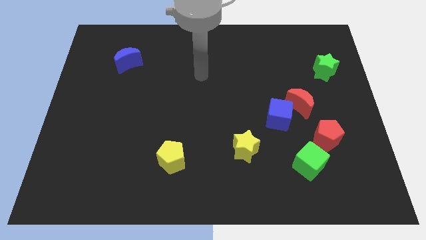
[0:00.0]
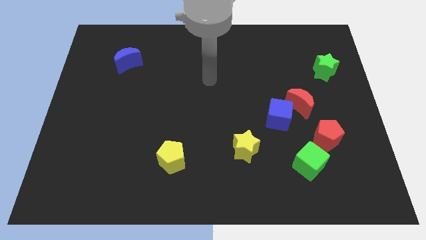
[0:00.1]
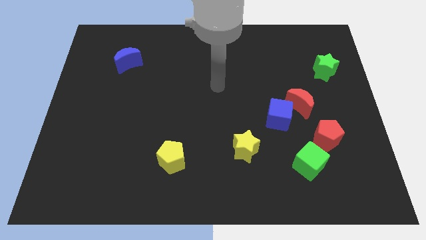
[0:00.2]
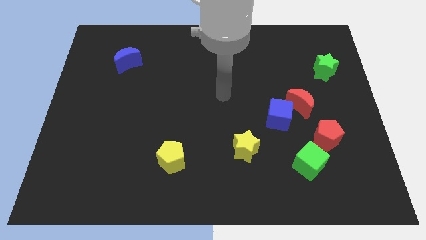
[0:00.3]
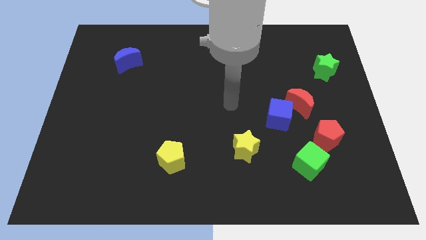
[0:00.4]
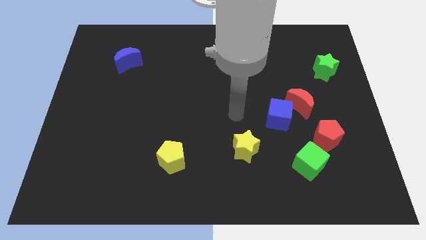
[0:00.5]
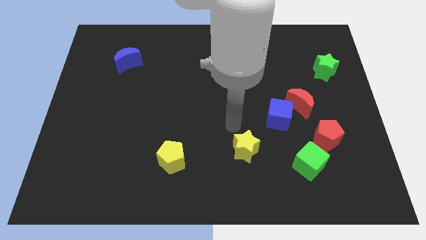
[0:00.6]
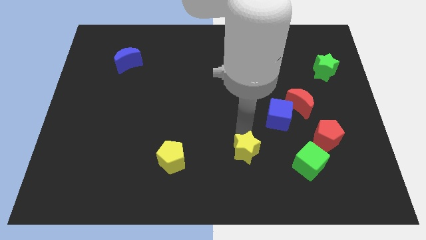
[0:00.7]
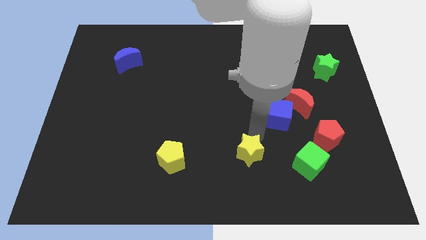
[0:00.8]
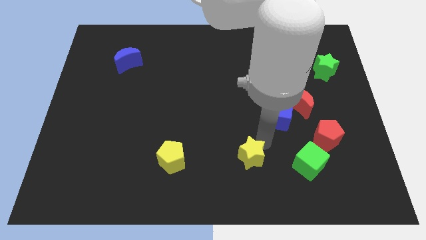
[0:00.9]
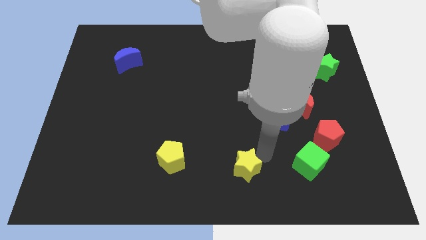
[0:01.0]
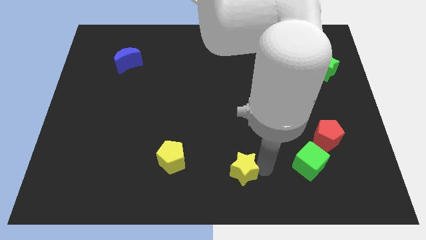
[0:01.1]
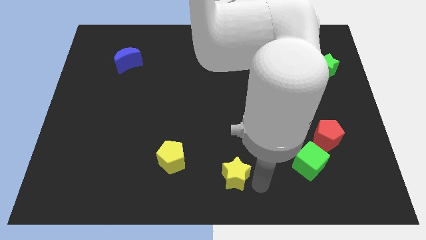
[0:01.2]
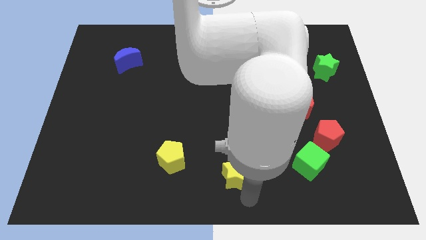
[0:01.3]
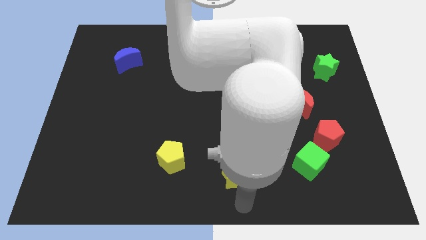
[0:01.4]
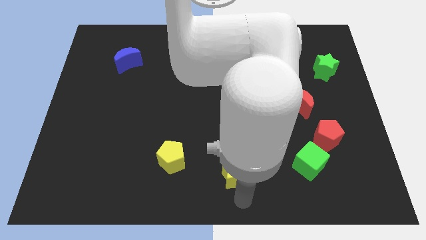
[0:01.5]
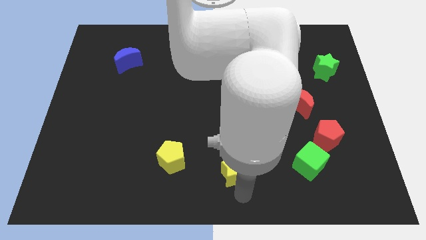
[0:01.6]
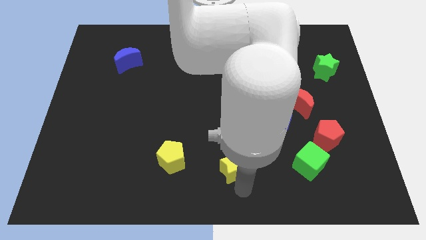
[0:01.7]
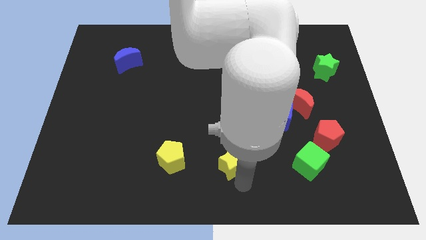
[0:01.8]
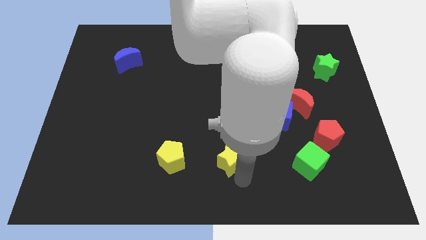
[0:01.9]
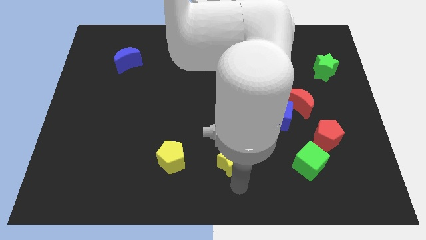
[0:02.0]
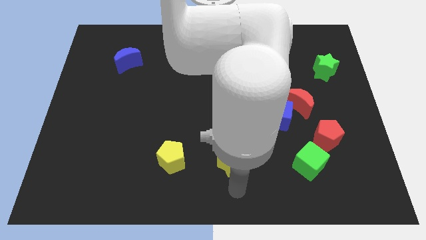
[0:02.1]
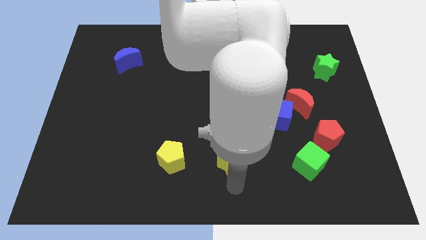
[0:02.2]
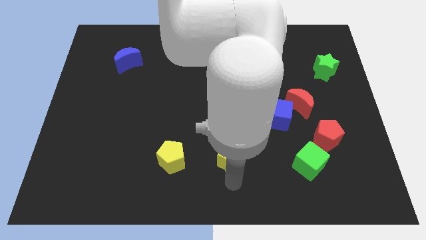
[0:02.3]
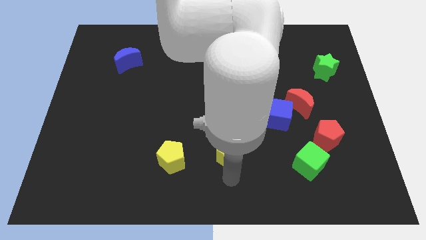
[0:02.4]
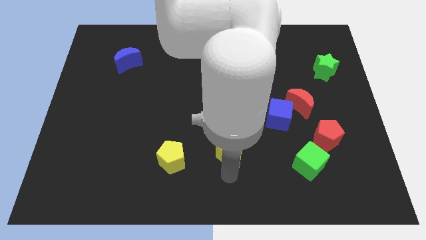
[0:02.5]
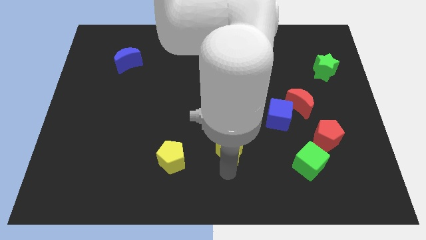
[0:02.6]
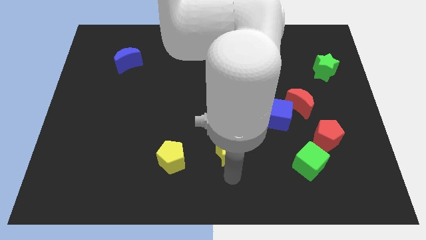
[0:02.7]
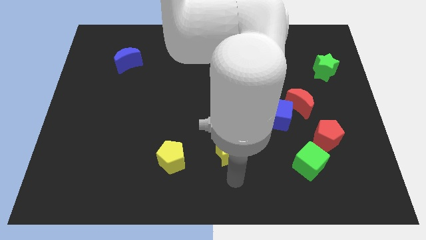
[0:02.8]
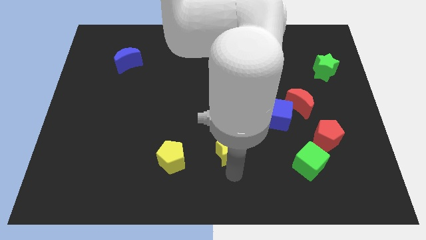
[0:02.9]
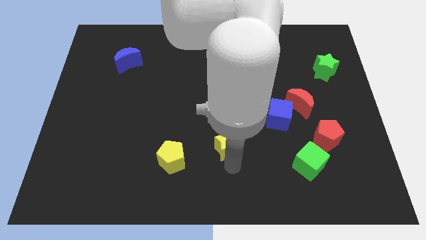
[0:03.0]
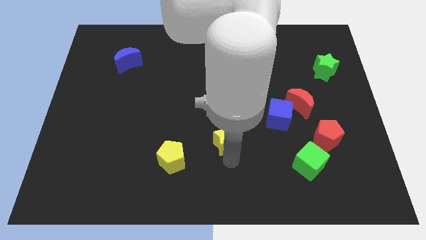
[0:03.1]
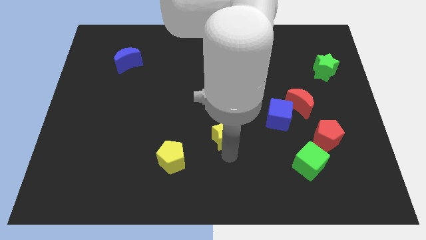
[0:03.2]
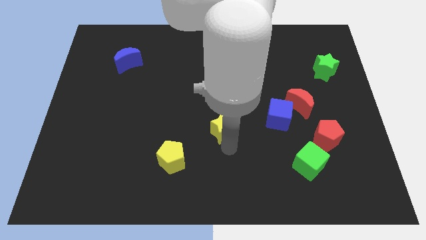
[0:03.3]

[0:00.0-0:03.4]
slightly push the yellow star up and to the left diagonally

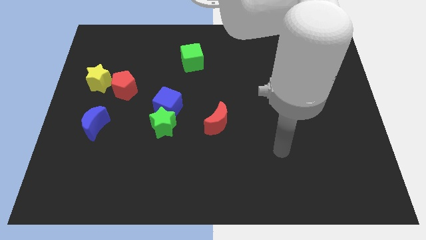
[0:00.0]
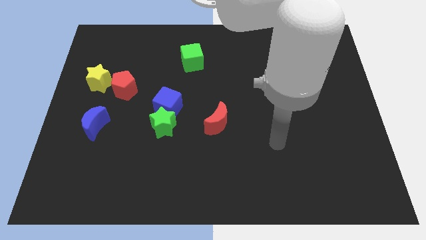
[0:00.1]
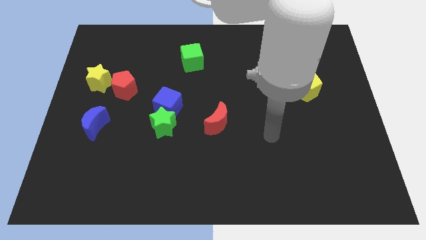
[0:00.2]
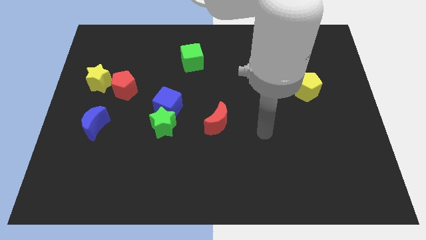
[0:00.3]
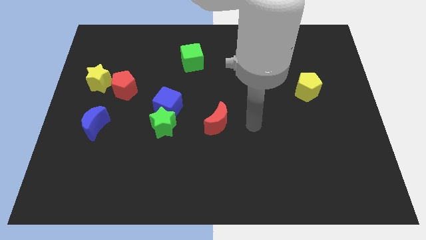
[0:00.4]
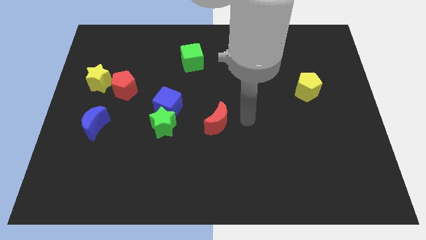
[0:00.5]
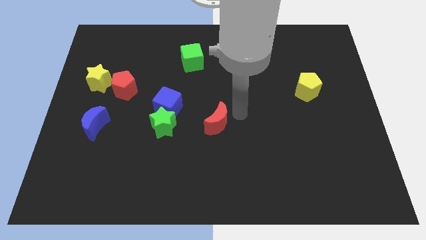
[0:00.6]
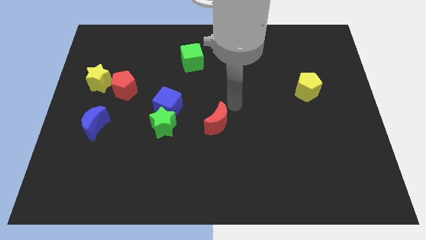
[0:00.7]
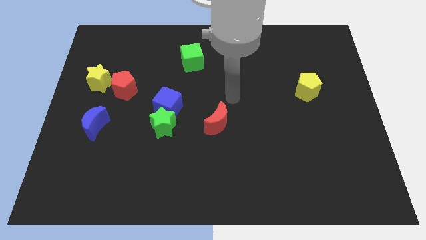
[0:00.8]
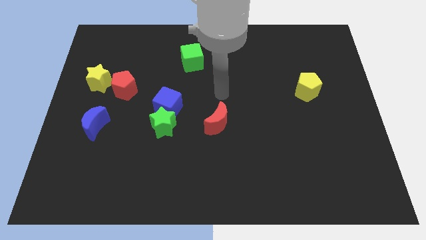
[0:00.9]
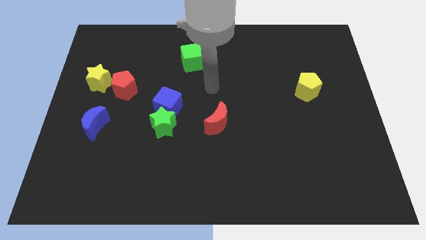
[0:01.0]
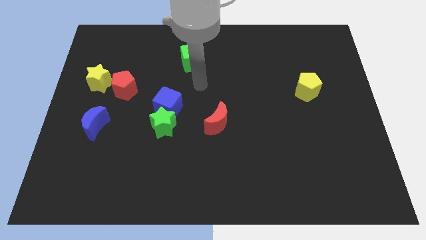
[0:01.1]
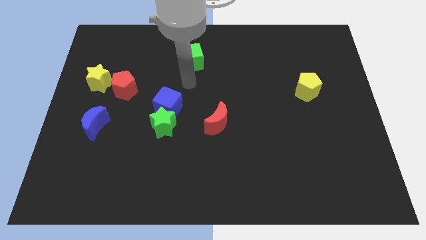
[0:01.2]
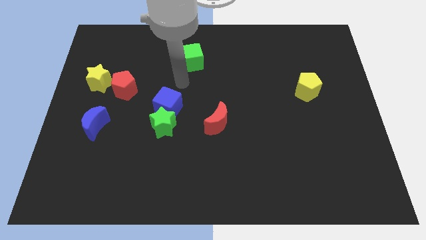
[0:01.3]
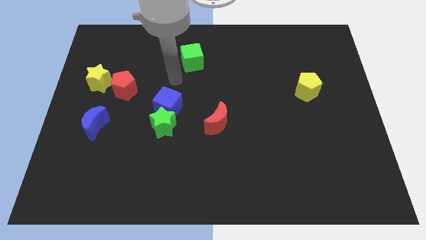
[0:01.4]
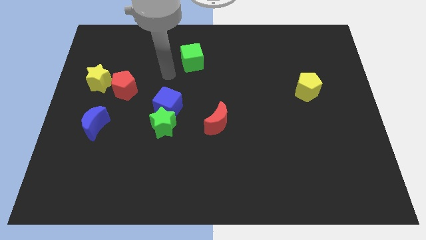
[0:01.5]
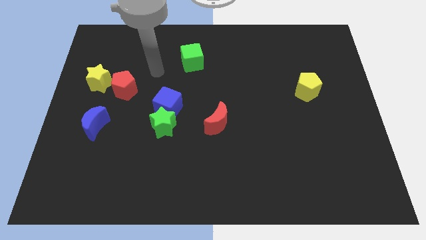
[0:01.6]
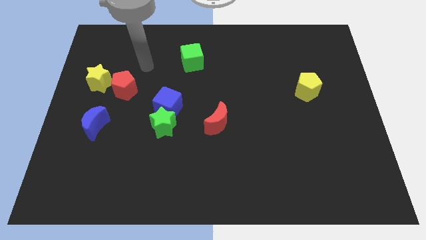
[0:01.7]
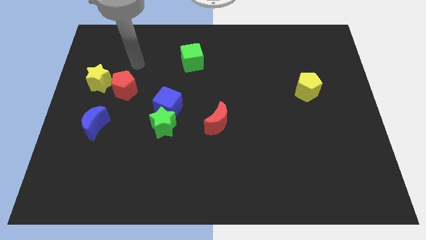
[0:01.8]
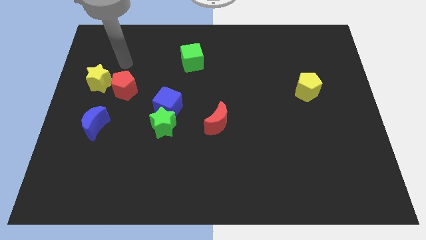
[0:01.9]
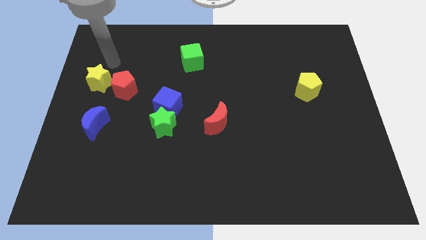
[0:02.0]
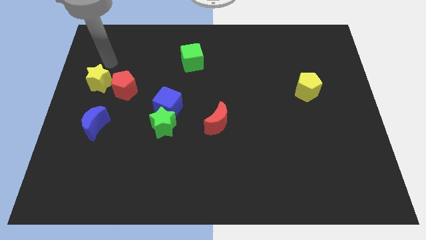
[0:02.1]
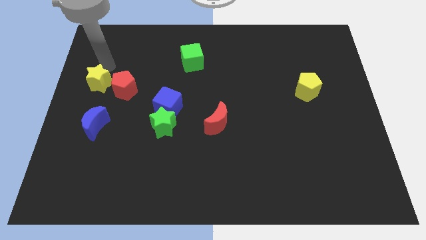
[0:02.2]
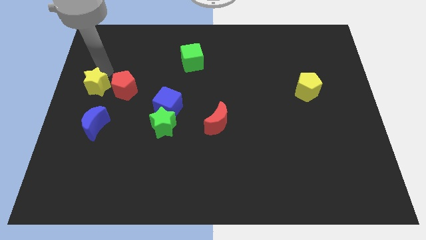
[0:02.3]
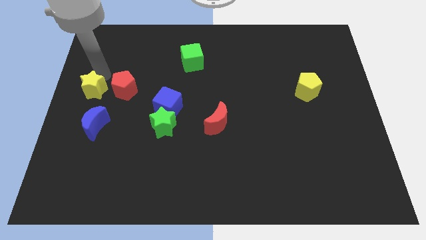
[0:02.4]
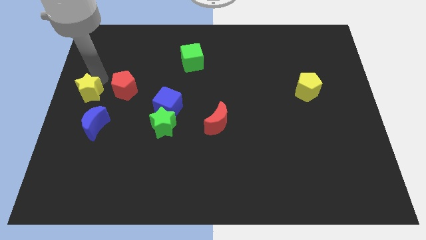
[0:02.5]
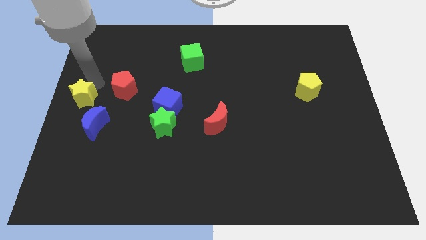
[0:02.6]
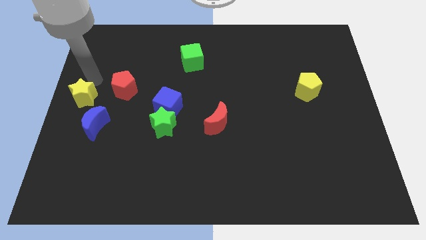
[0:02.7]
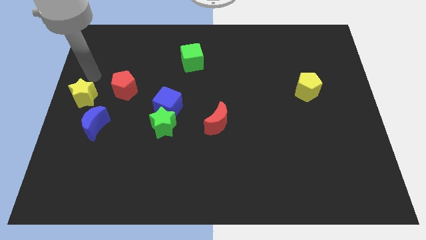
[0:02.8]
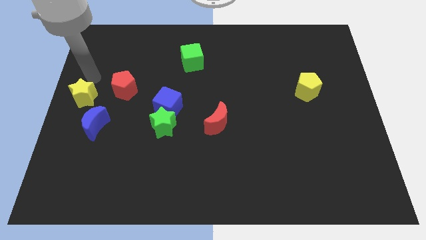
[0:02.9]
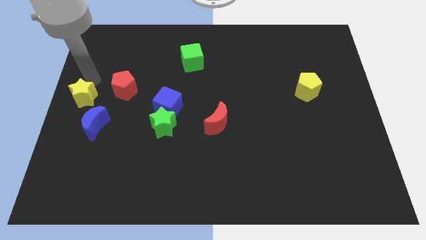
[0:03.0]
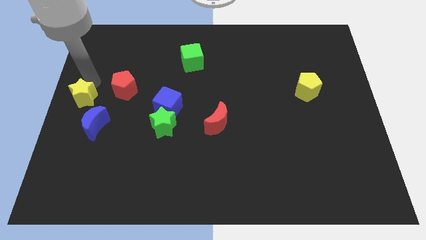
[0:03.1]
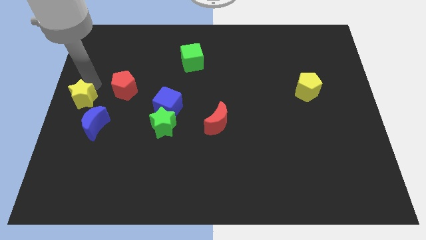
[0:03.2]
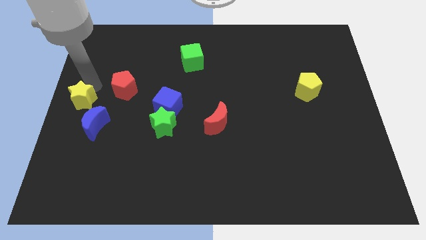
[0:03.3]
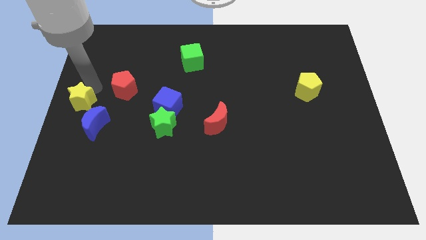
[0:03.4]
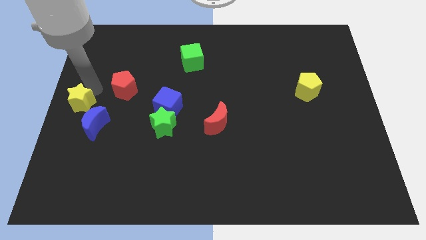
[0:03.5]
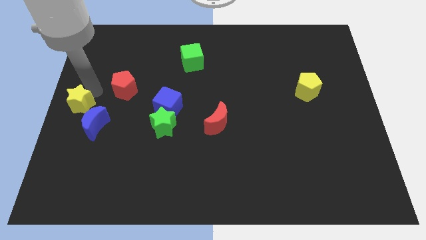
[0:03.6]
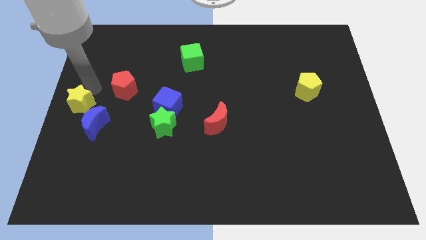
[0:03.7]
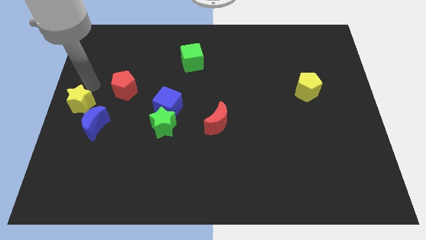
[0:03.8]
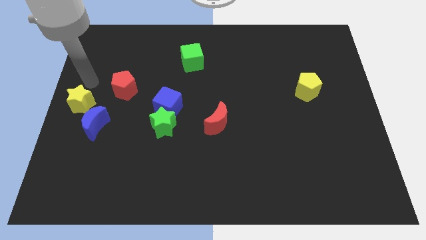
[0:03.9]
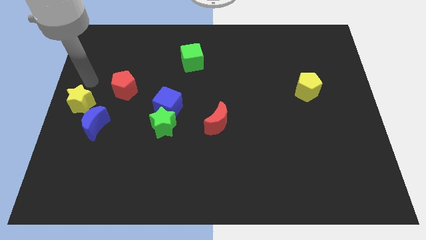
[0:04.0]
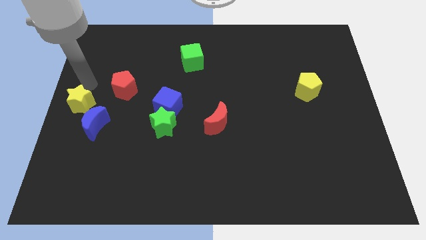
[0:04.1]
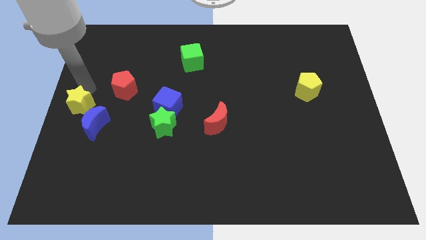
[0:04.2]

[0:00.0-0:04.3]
move the yellow star a little down
